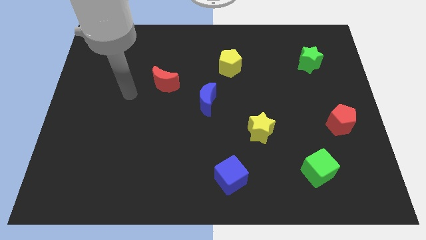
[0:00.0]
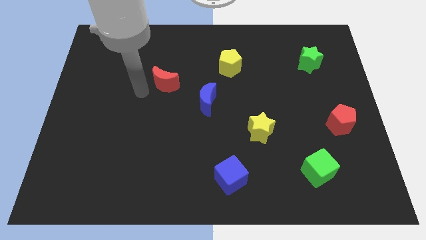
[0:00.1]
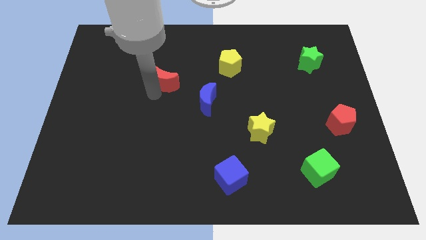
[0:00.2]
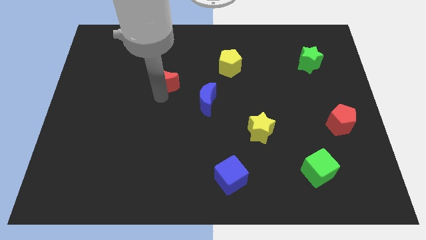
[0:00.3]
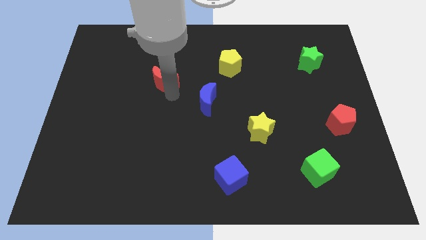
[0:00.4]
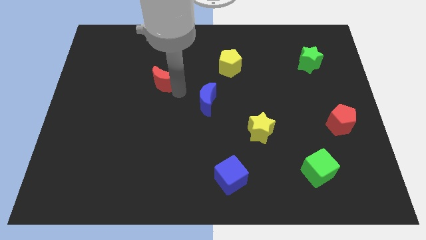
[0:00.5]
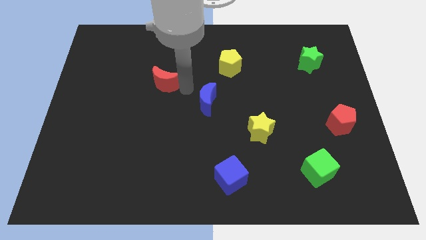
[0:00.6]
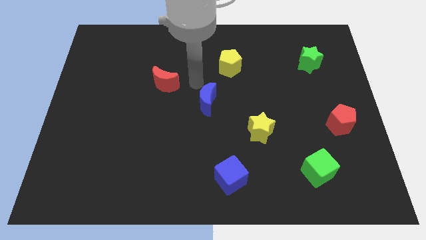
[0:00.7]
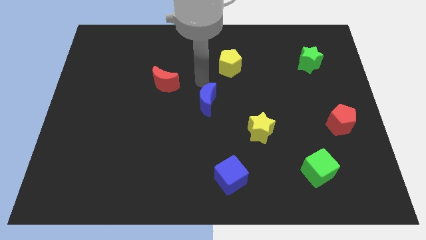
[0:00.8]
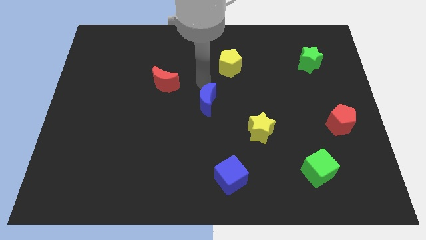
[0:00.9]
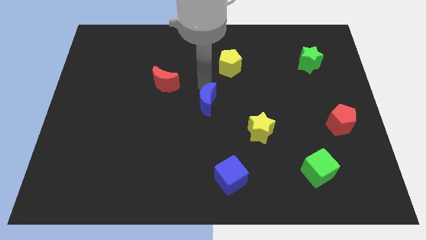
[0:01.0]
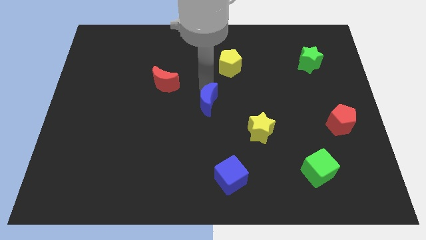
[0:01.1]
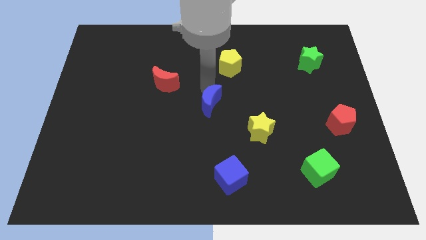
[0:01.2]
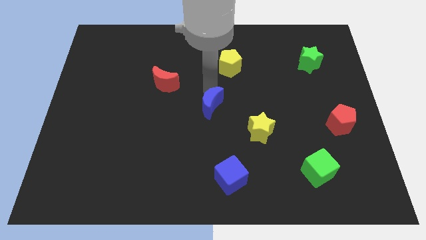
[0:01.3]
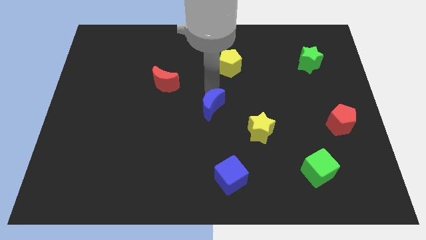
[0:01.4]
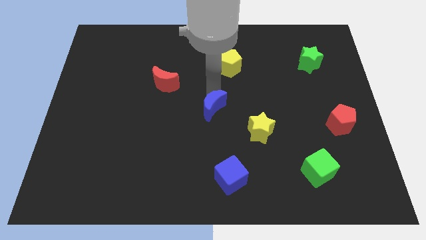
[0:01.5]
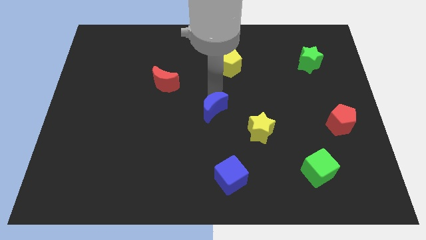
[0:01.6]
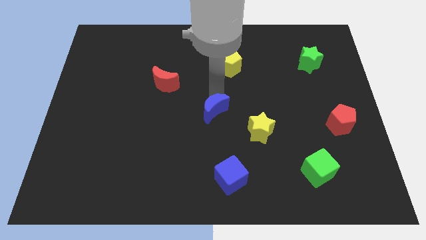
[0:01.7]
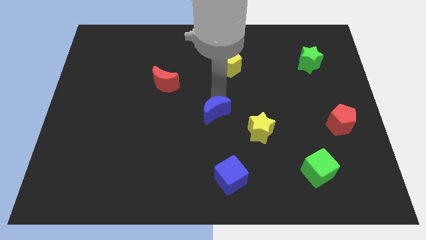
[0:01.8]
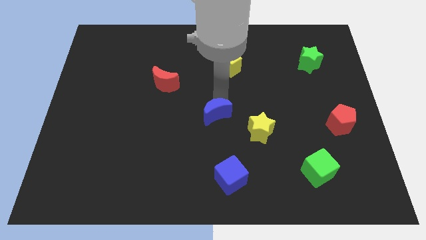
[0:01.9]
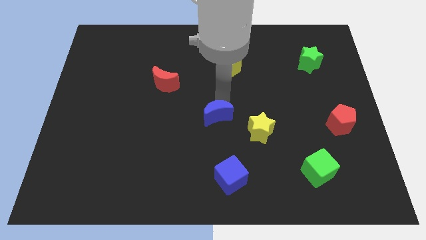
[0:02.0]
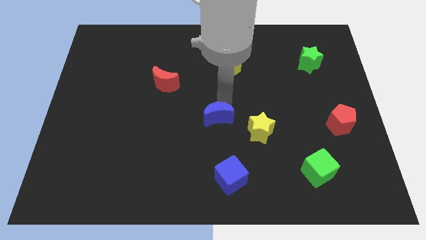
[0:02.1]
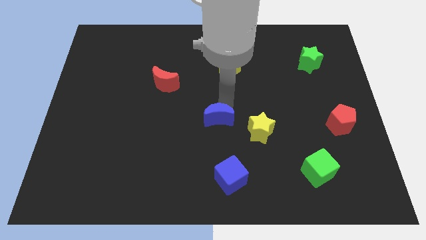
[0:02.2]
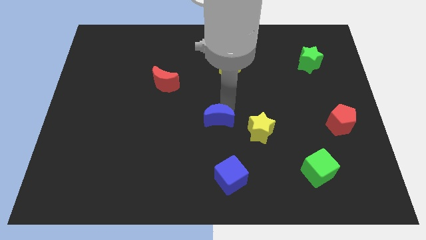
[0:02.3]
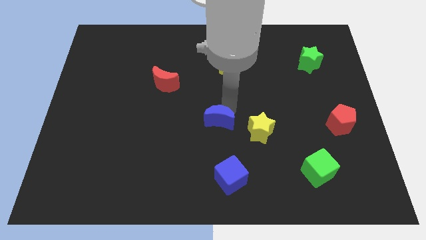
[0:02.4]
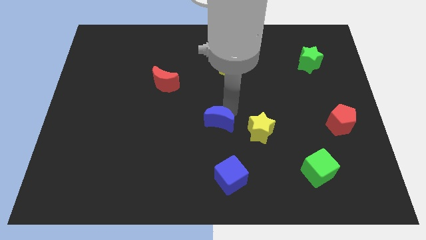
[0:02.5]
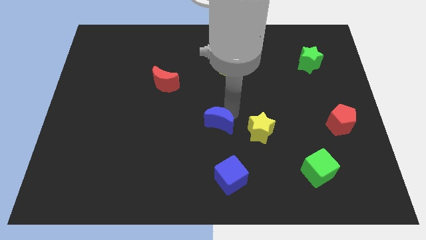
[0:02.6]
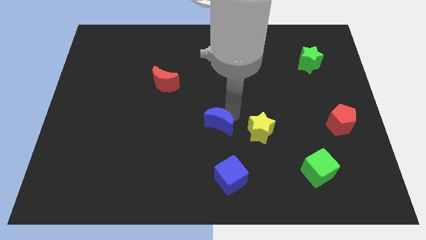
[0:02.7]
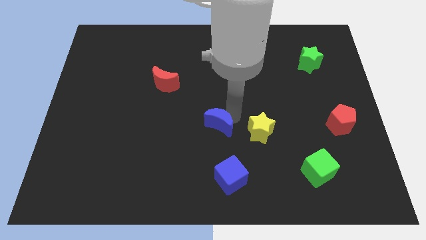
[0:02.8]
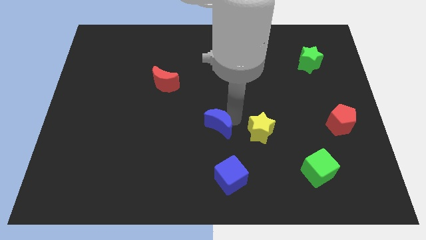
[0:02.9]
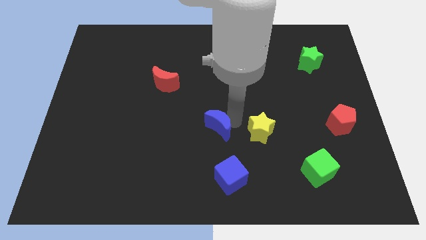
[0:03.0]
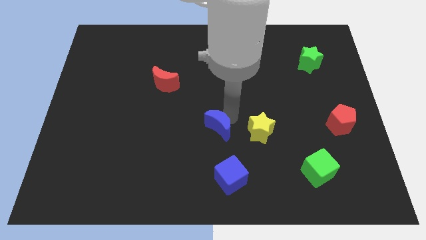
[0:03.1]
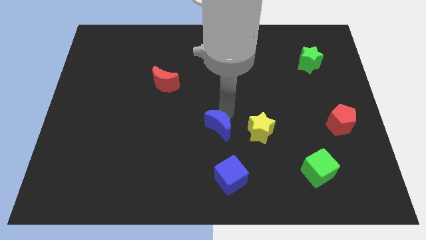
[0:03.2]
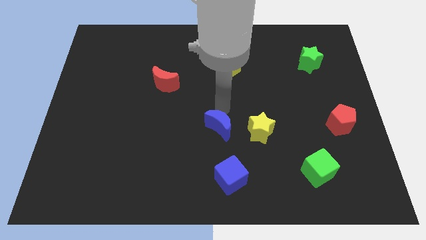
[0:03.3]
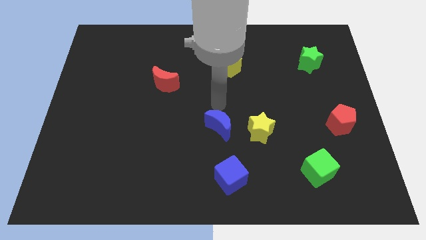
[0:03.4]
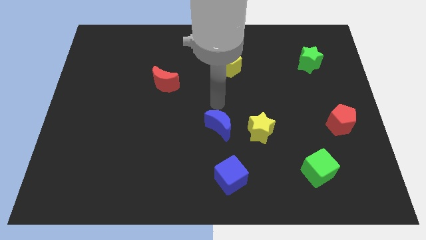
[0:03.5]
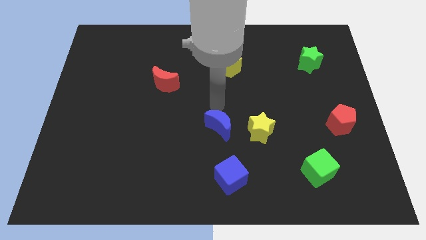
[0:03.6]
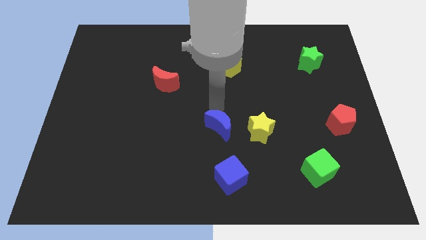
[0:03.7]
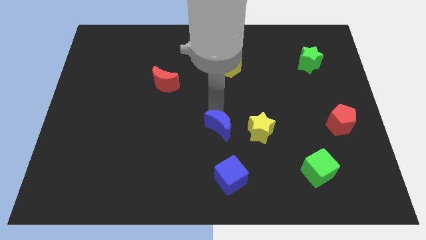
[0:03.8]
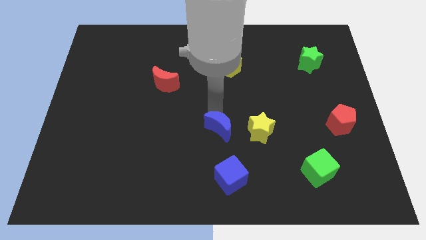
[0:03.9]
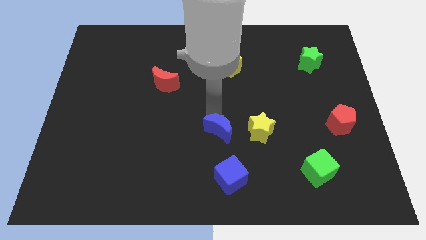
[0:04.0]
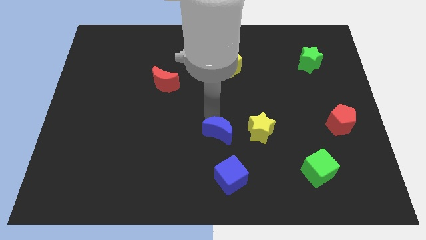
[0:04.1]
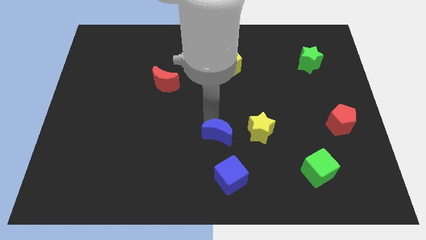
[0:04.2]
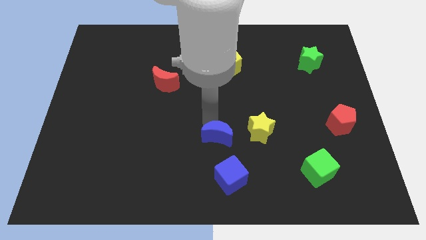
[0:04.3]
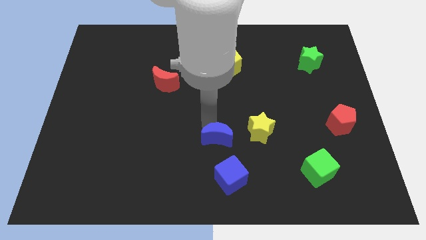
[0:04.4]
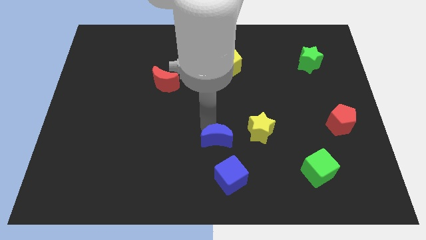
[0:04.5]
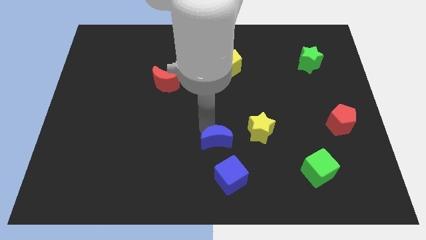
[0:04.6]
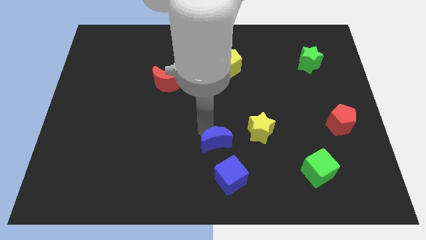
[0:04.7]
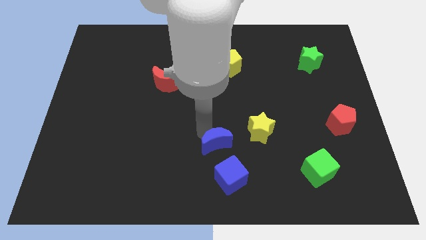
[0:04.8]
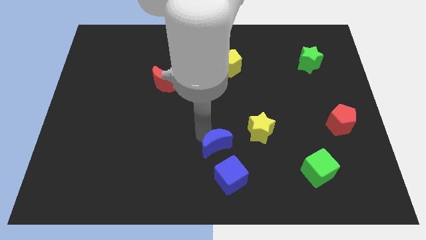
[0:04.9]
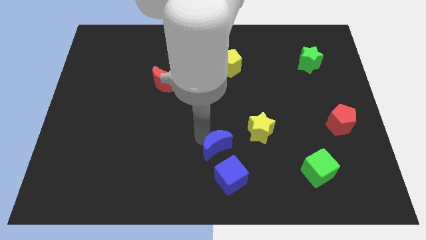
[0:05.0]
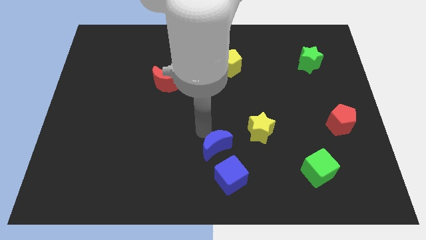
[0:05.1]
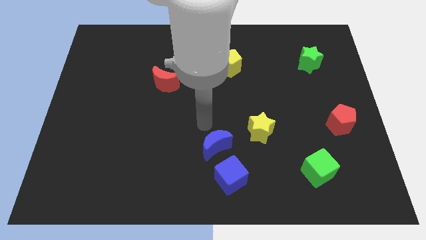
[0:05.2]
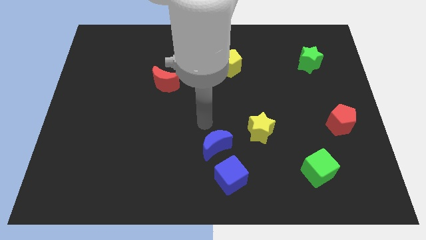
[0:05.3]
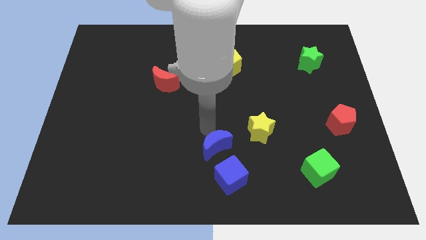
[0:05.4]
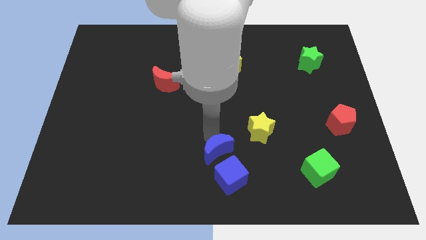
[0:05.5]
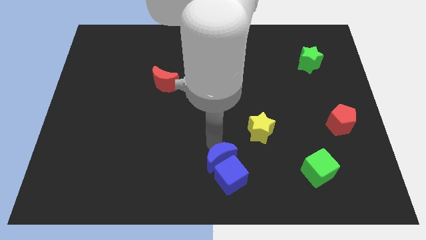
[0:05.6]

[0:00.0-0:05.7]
push the blue moon to the blue cube

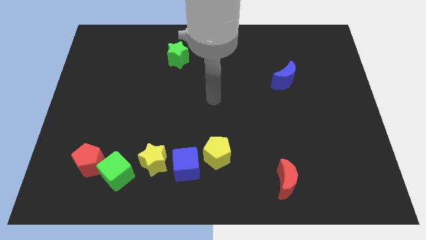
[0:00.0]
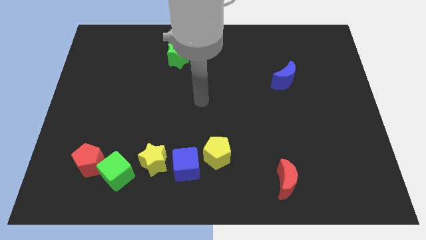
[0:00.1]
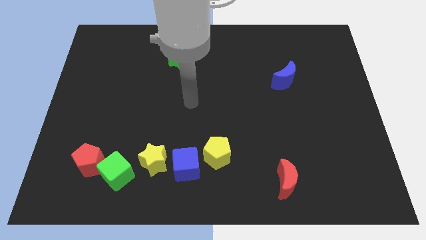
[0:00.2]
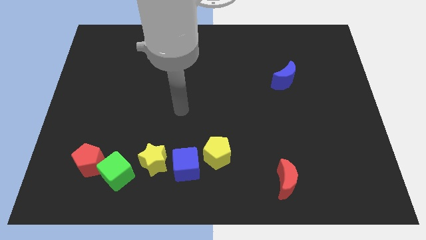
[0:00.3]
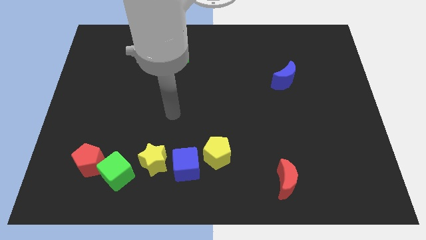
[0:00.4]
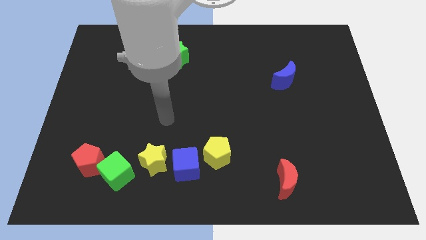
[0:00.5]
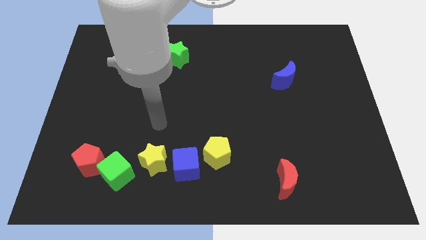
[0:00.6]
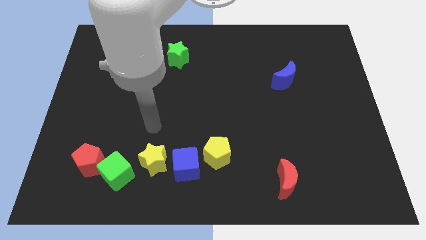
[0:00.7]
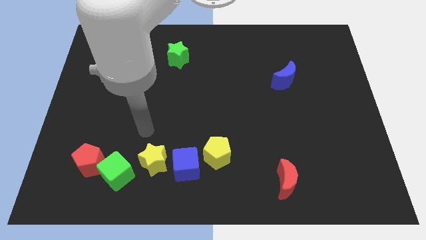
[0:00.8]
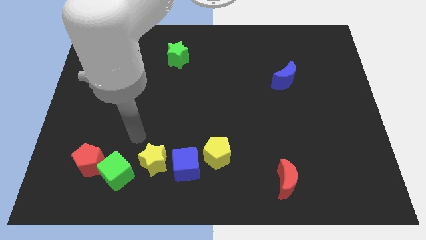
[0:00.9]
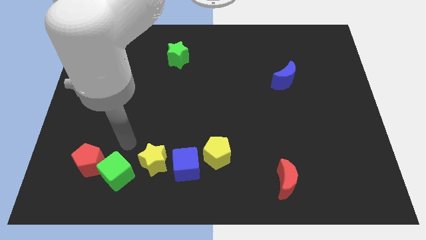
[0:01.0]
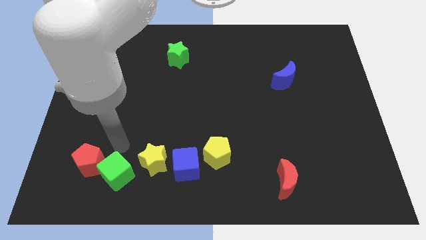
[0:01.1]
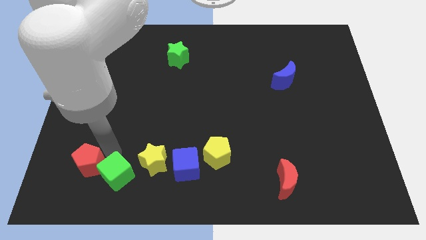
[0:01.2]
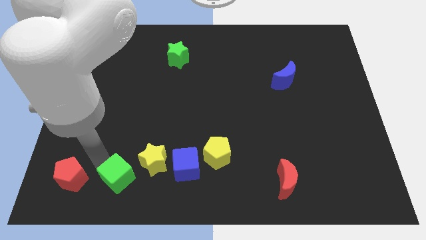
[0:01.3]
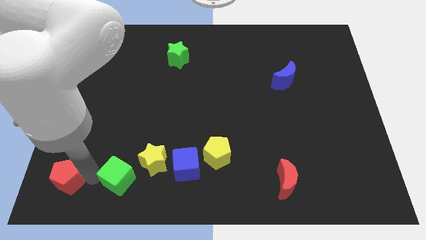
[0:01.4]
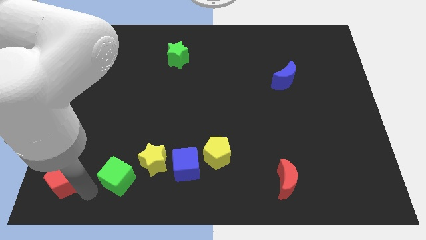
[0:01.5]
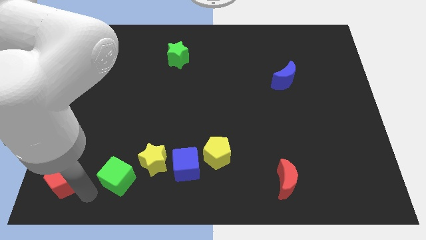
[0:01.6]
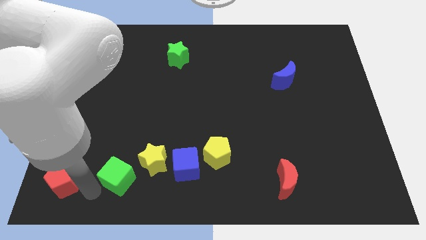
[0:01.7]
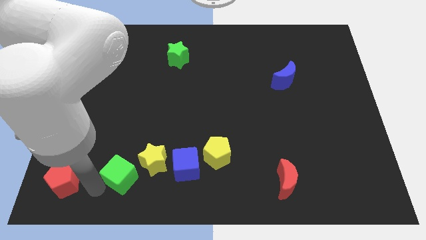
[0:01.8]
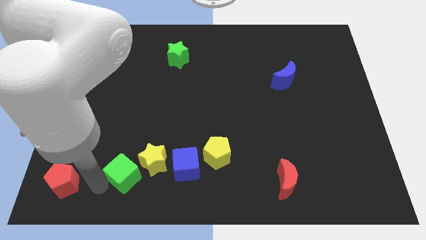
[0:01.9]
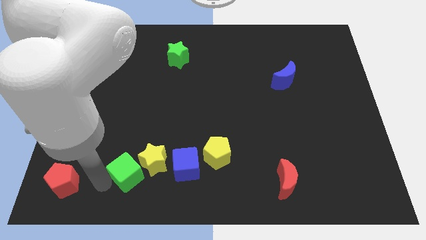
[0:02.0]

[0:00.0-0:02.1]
slide the green cube next to the yellow star
